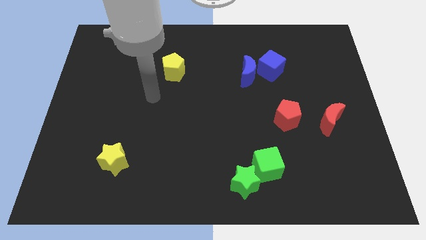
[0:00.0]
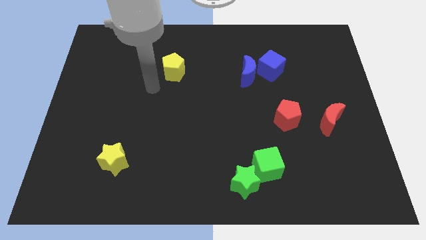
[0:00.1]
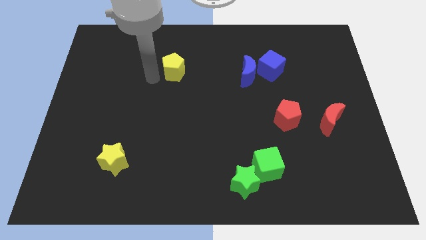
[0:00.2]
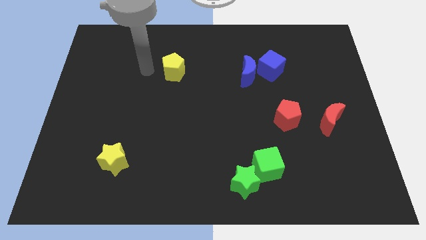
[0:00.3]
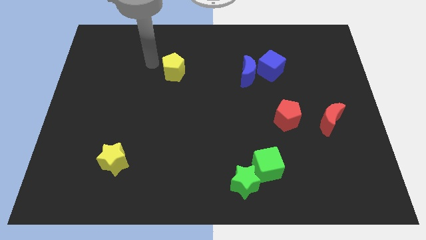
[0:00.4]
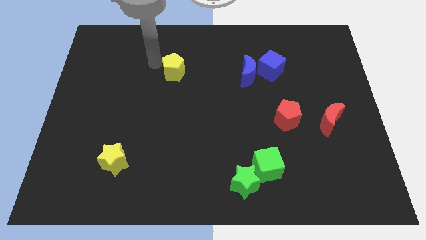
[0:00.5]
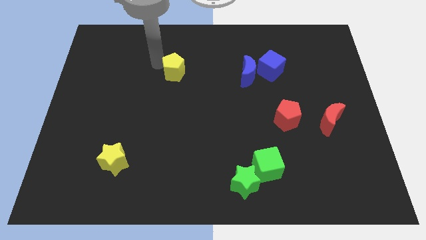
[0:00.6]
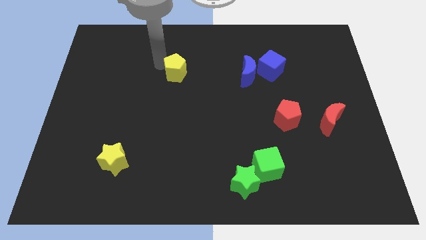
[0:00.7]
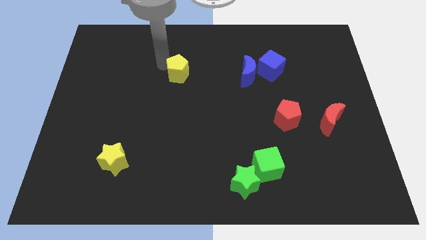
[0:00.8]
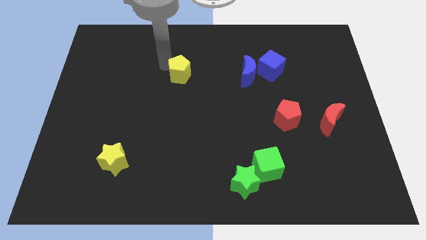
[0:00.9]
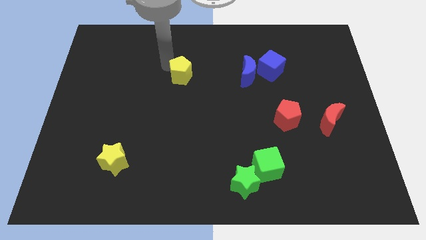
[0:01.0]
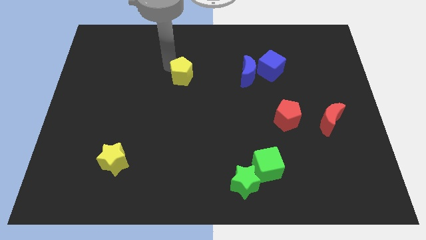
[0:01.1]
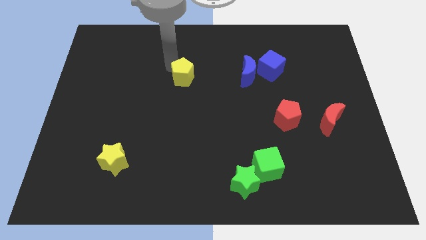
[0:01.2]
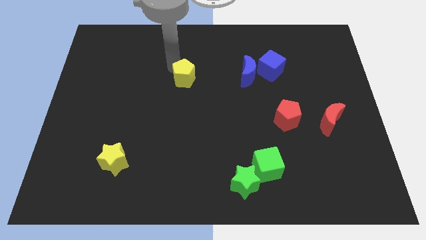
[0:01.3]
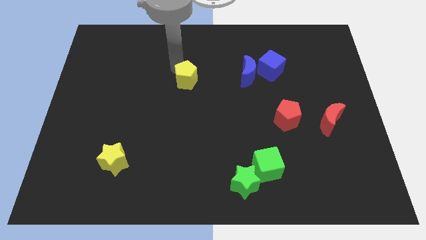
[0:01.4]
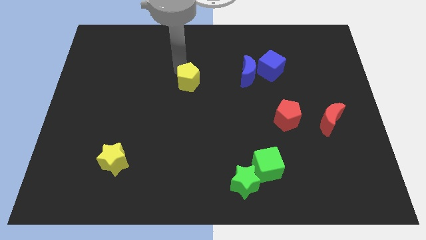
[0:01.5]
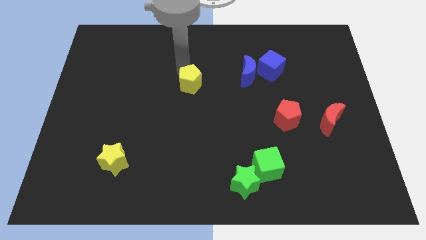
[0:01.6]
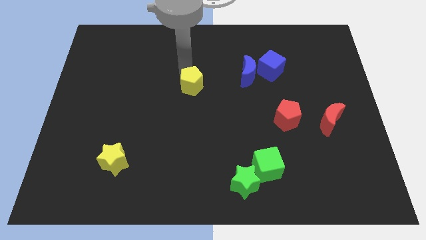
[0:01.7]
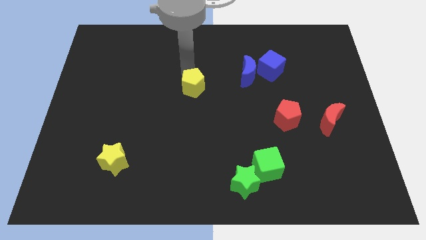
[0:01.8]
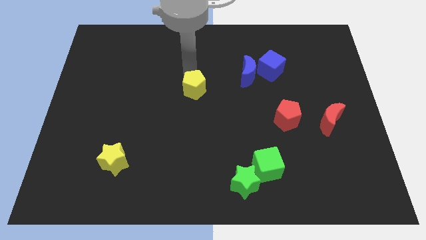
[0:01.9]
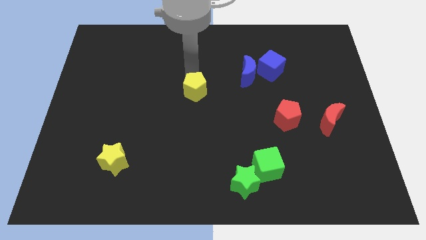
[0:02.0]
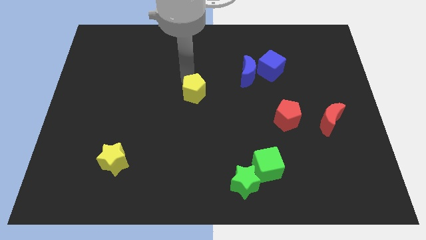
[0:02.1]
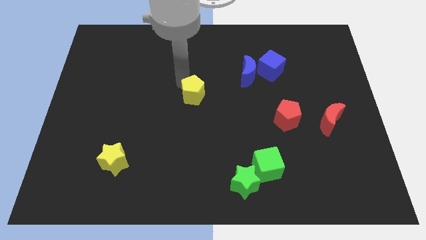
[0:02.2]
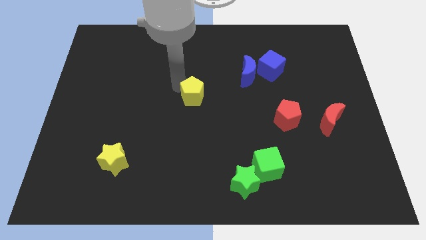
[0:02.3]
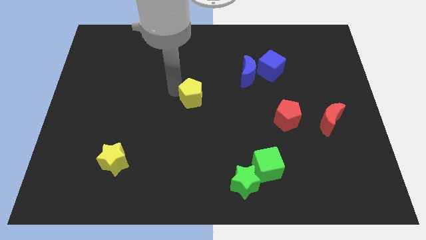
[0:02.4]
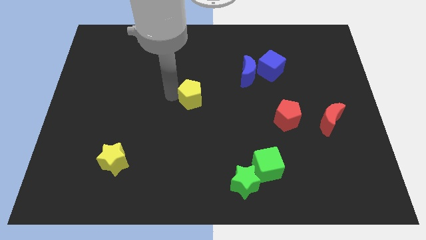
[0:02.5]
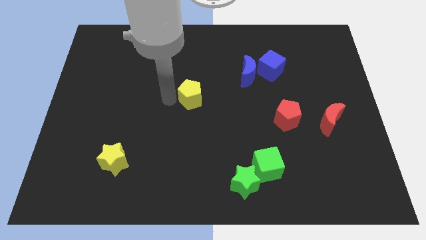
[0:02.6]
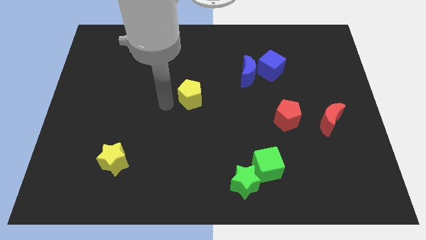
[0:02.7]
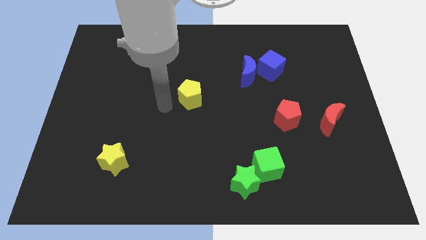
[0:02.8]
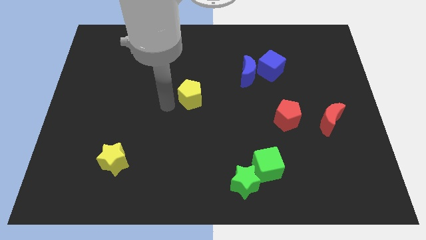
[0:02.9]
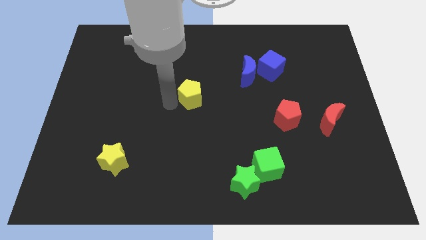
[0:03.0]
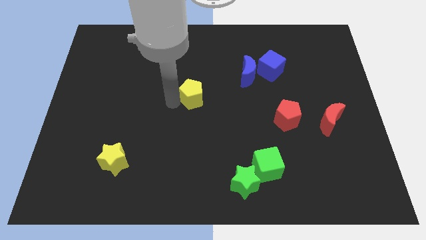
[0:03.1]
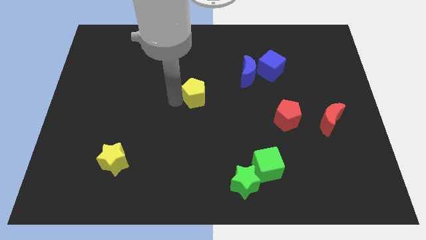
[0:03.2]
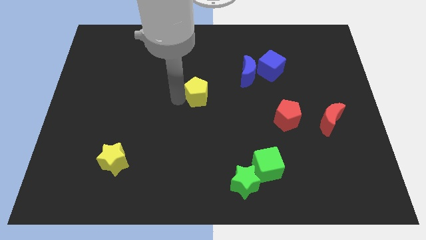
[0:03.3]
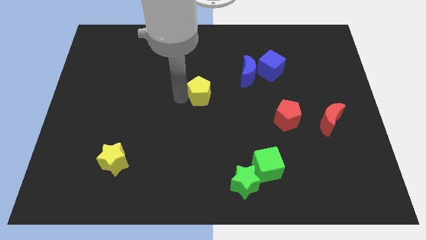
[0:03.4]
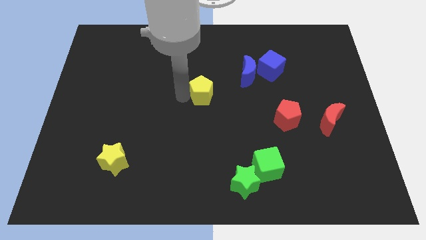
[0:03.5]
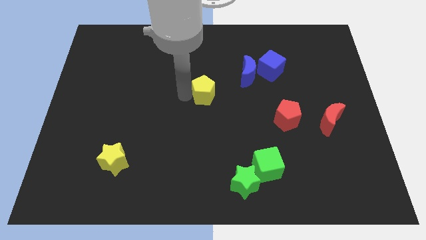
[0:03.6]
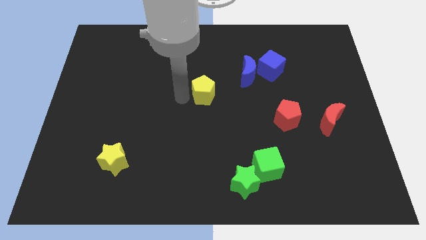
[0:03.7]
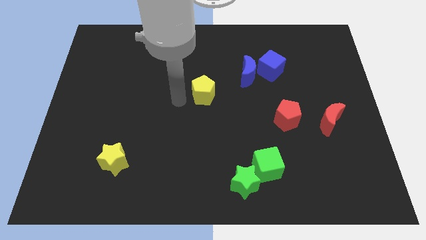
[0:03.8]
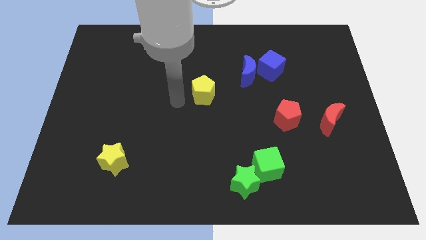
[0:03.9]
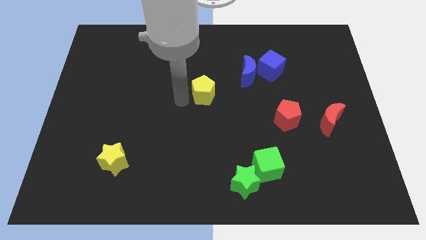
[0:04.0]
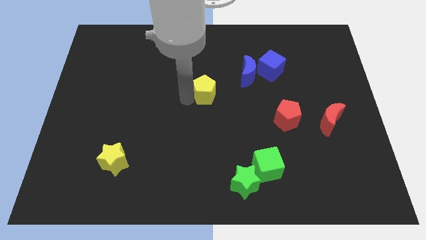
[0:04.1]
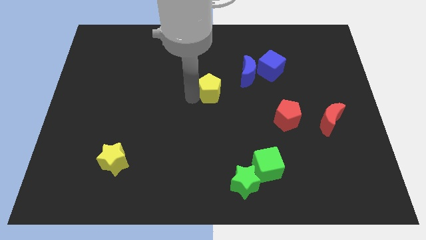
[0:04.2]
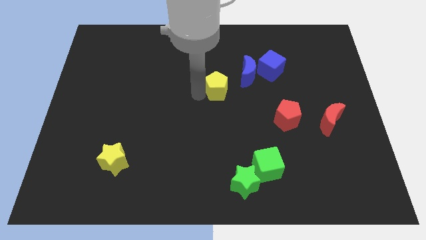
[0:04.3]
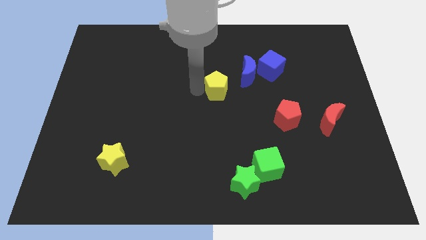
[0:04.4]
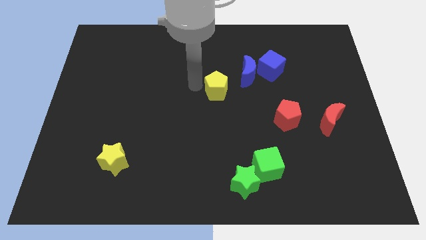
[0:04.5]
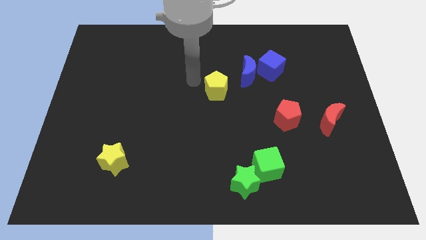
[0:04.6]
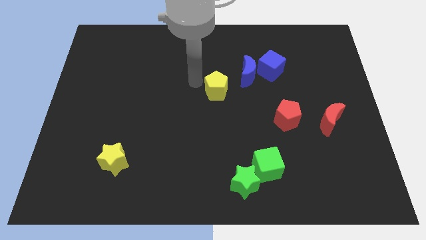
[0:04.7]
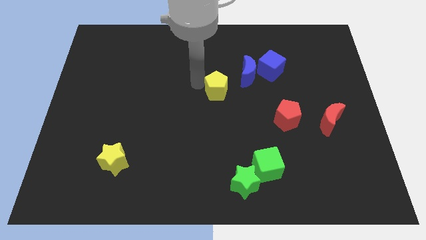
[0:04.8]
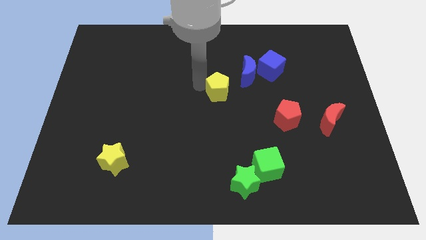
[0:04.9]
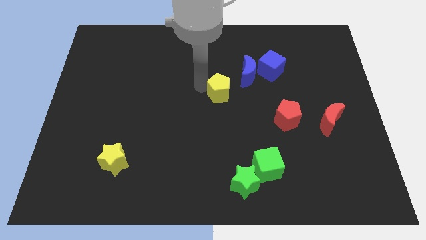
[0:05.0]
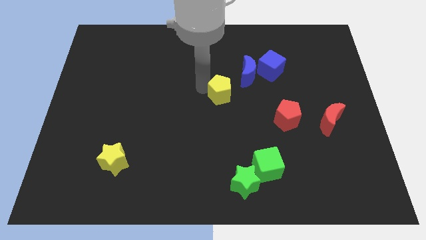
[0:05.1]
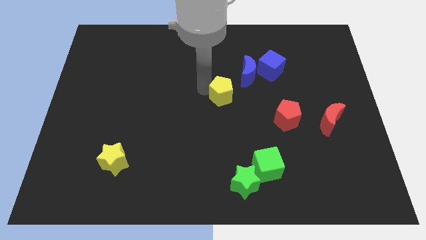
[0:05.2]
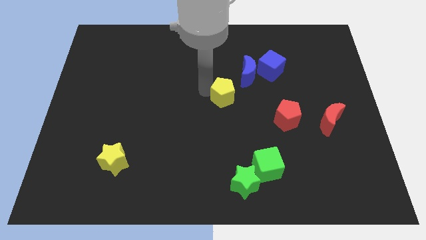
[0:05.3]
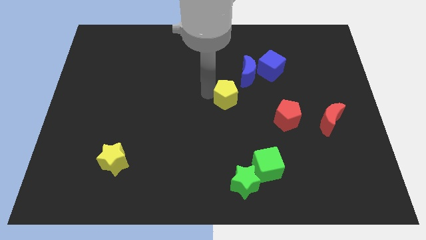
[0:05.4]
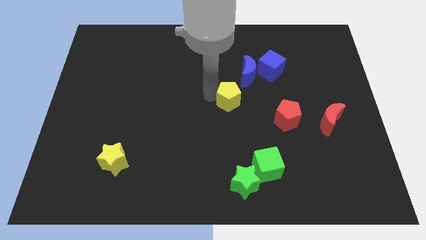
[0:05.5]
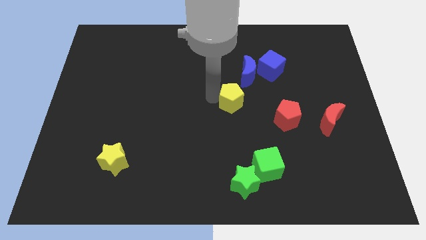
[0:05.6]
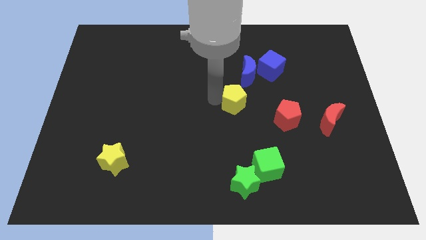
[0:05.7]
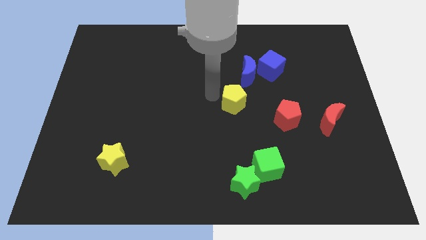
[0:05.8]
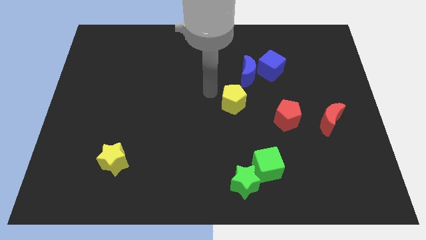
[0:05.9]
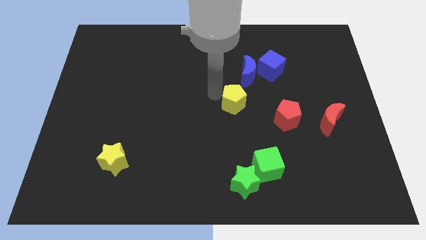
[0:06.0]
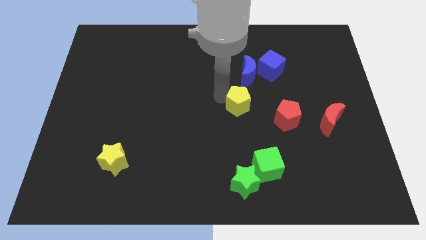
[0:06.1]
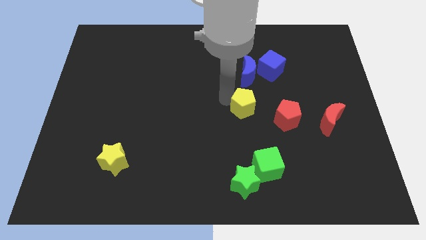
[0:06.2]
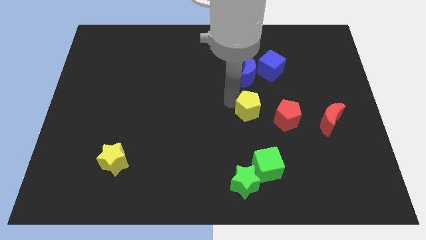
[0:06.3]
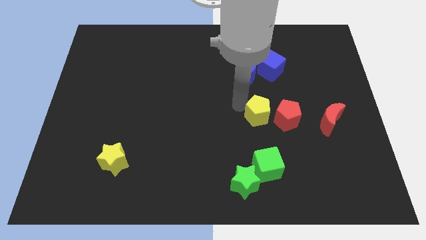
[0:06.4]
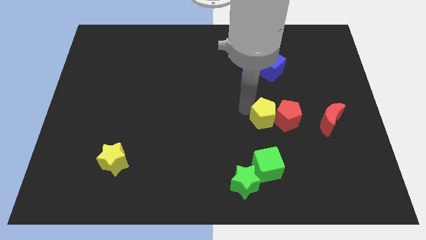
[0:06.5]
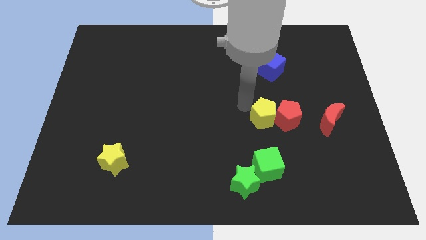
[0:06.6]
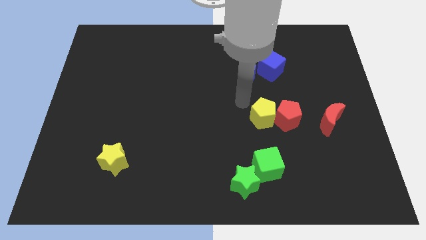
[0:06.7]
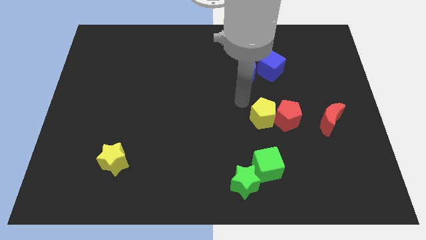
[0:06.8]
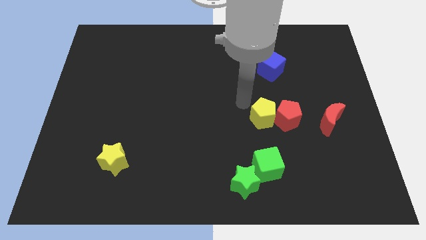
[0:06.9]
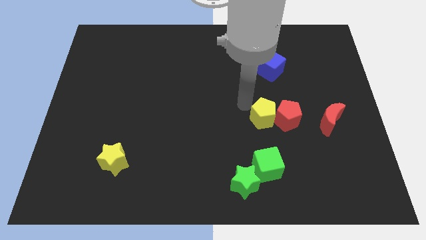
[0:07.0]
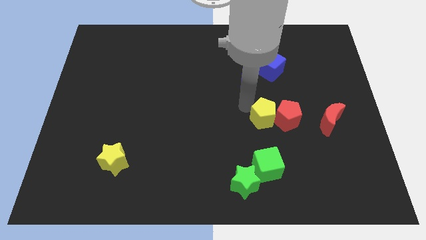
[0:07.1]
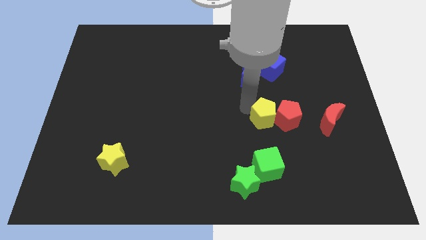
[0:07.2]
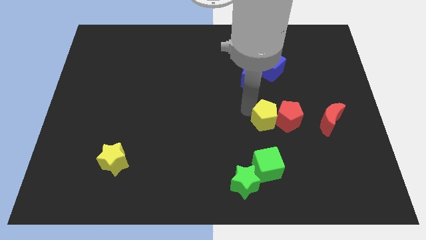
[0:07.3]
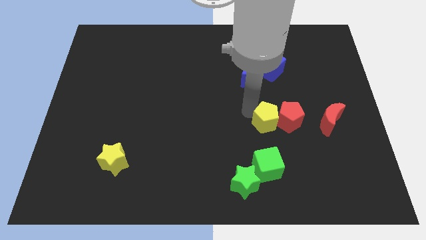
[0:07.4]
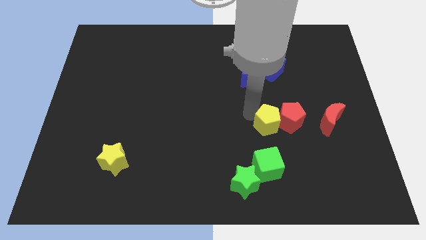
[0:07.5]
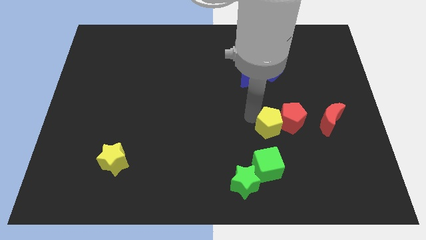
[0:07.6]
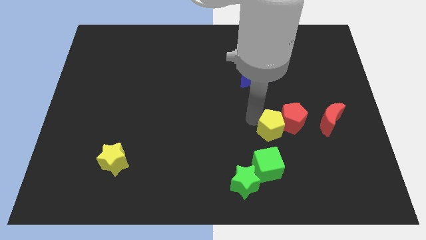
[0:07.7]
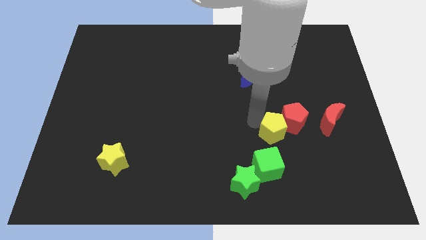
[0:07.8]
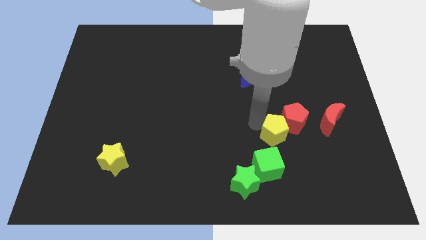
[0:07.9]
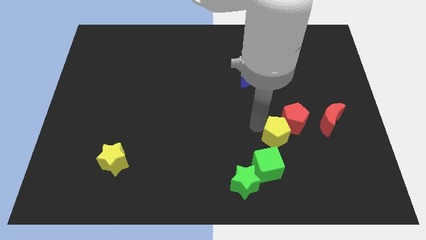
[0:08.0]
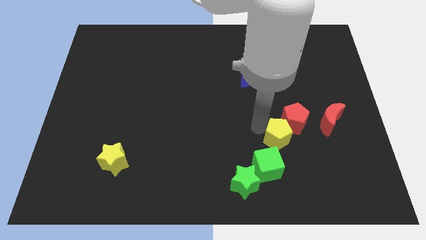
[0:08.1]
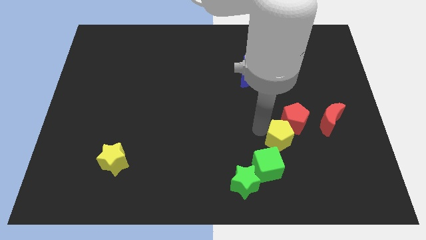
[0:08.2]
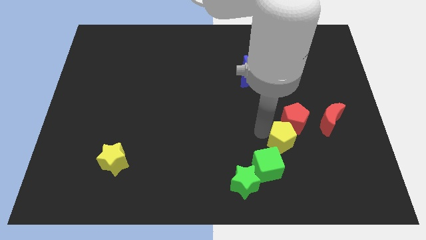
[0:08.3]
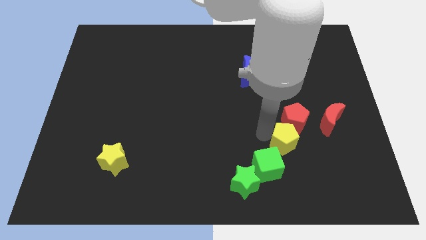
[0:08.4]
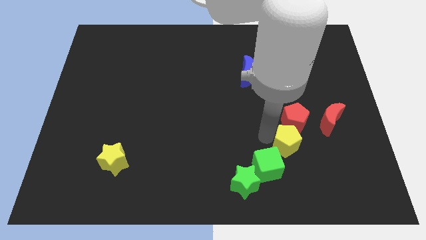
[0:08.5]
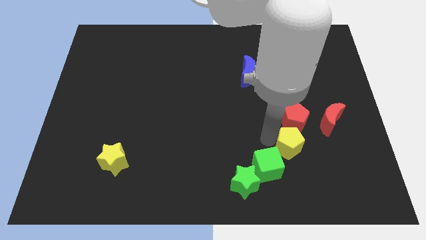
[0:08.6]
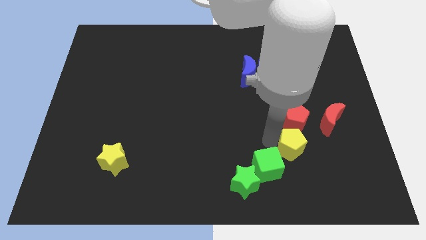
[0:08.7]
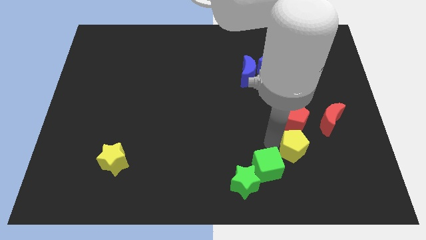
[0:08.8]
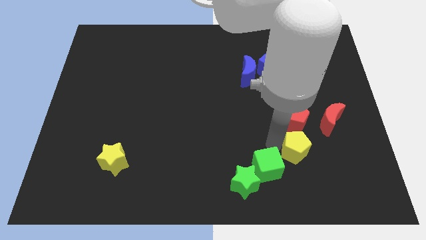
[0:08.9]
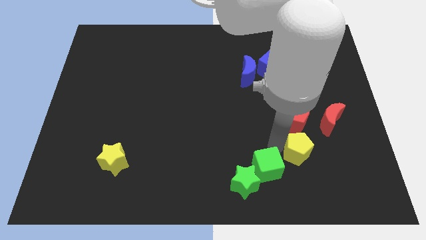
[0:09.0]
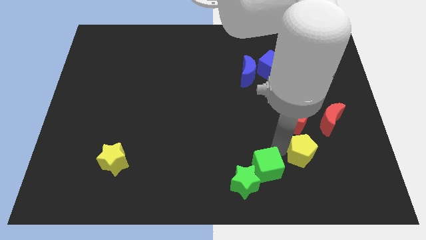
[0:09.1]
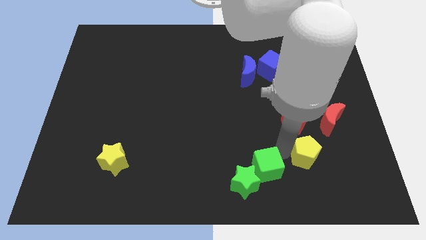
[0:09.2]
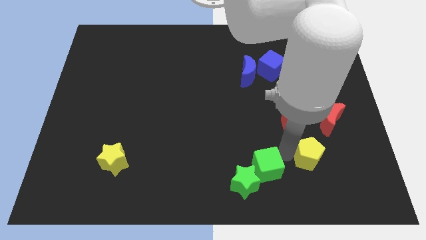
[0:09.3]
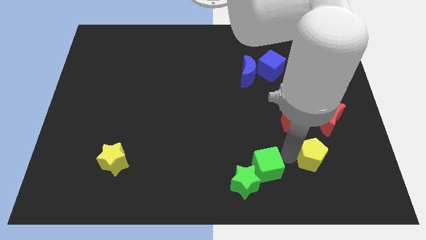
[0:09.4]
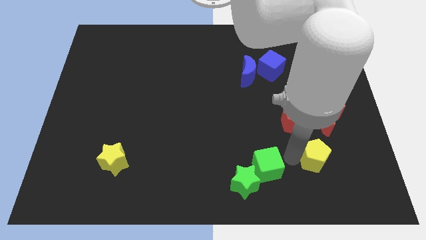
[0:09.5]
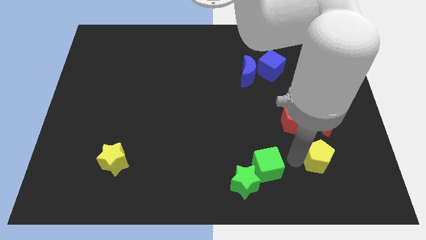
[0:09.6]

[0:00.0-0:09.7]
push the yellow pentagon to the bottom side of the red moon
